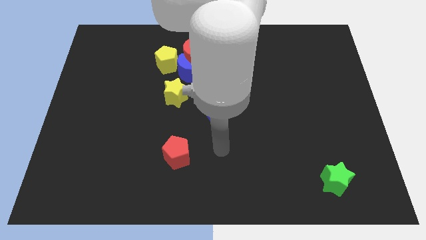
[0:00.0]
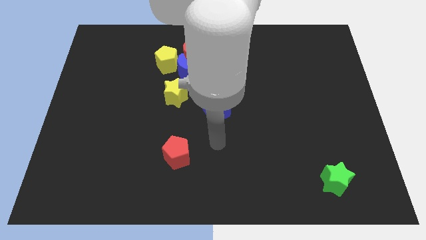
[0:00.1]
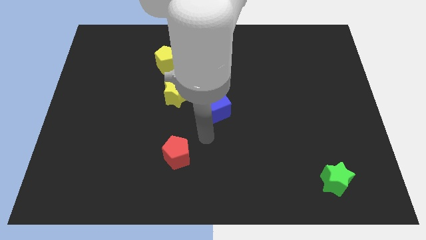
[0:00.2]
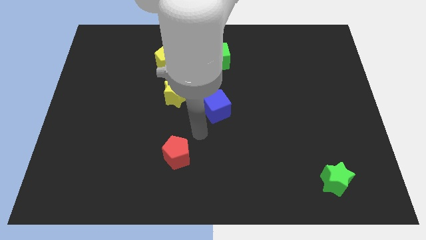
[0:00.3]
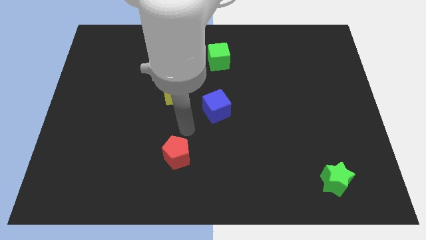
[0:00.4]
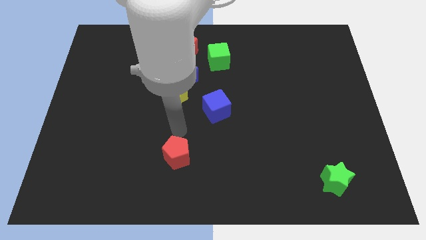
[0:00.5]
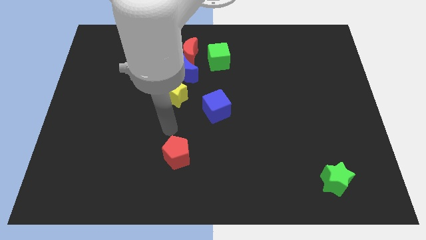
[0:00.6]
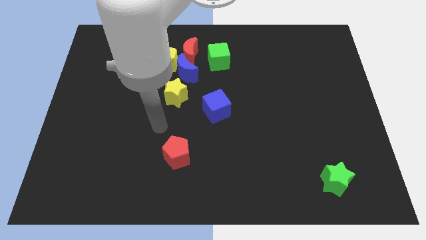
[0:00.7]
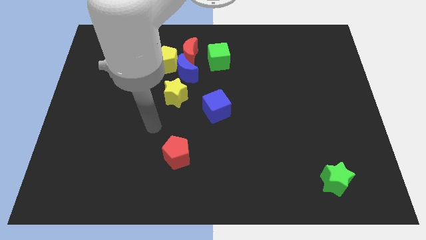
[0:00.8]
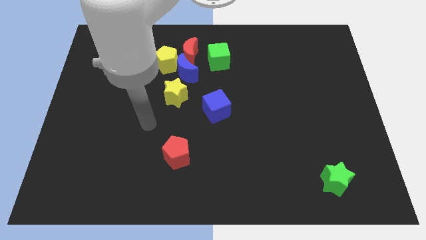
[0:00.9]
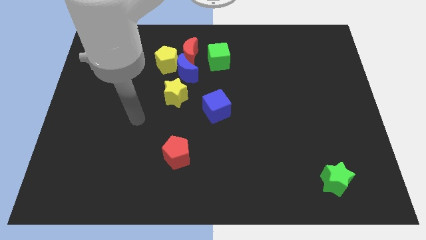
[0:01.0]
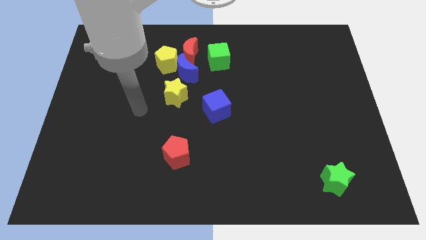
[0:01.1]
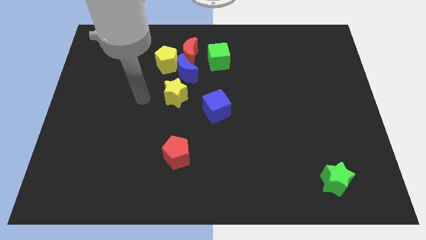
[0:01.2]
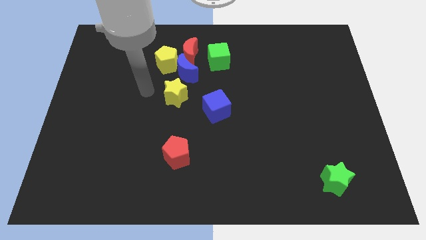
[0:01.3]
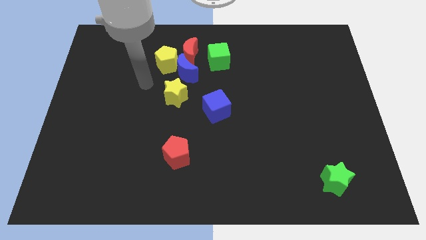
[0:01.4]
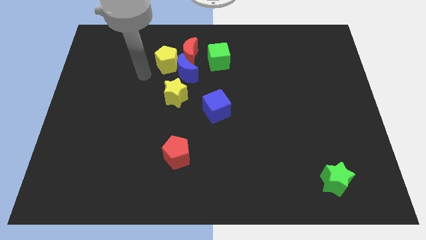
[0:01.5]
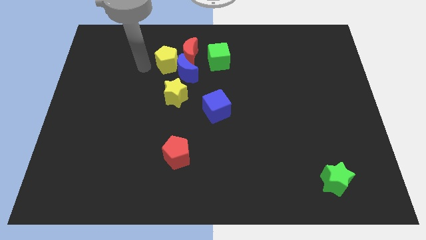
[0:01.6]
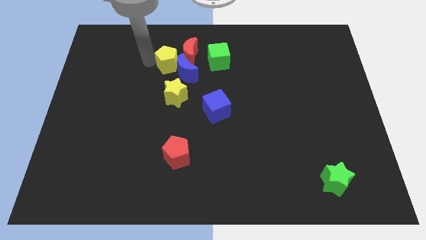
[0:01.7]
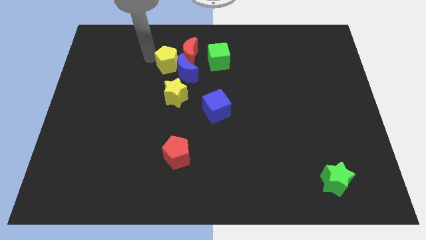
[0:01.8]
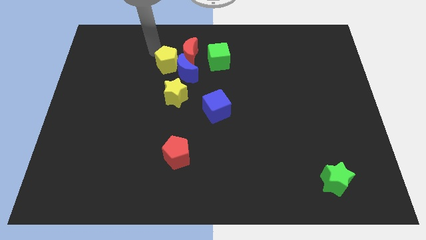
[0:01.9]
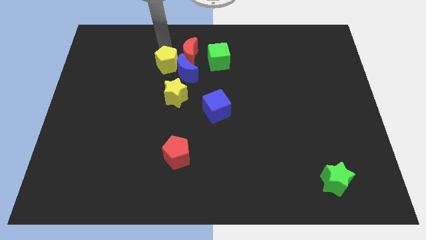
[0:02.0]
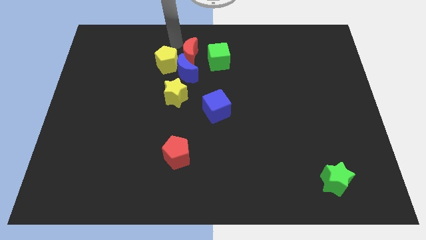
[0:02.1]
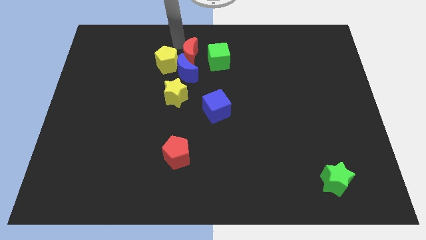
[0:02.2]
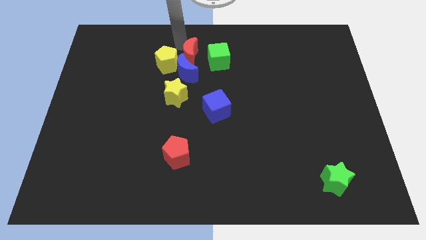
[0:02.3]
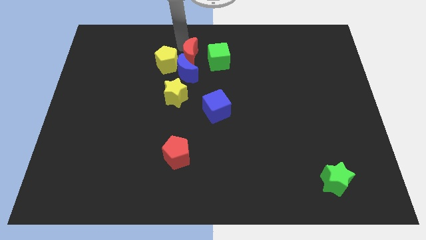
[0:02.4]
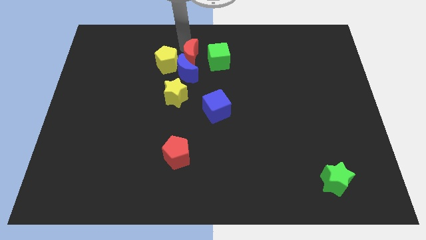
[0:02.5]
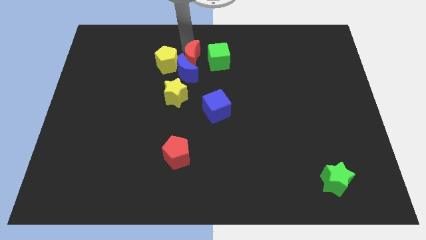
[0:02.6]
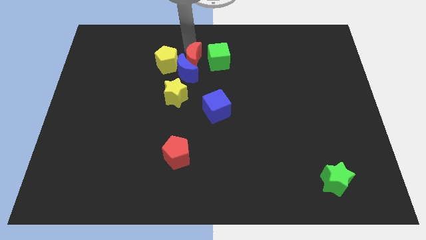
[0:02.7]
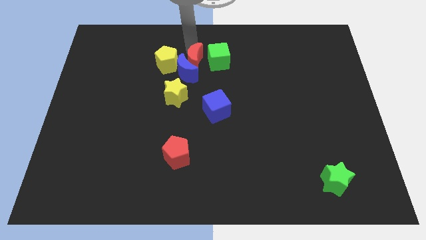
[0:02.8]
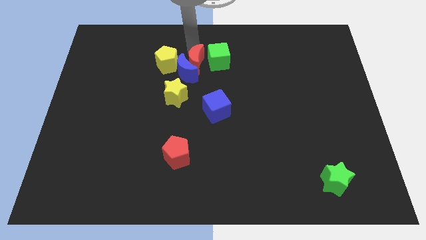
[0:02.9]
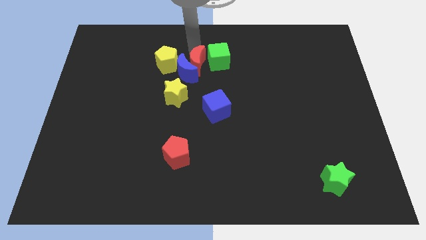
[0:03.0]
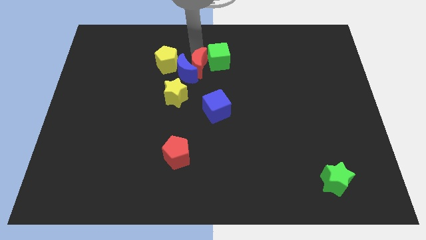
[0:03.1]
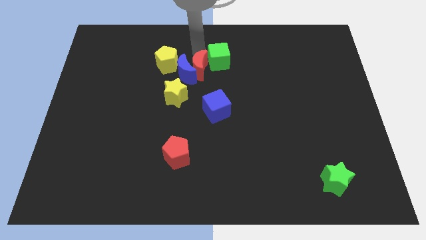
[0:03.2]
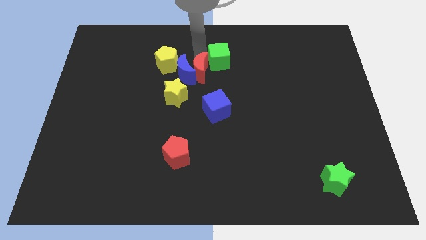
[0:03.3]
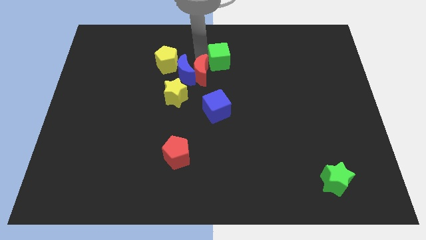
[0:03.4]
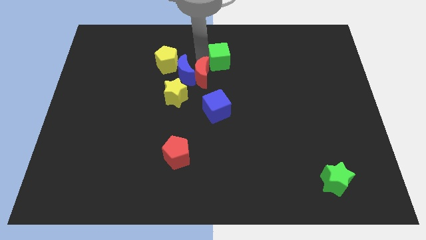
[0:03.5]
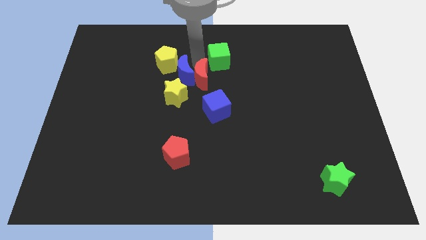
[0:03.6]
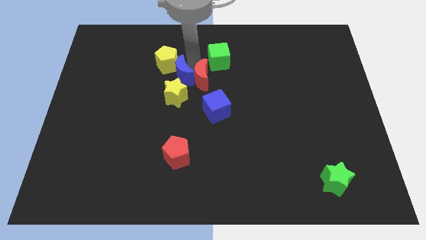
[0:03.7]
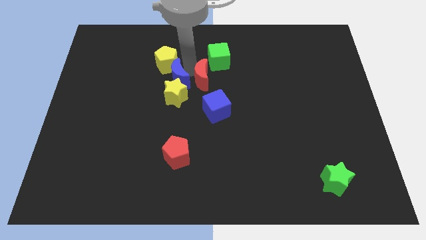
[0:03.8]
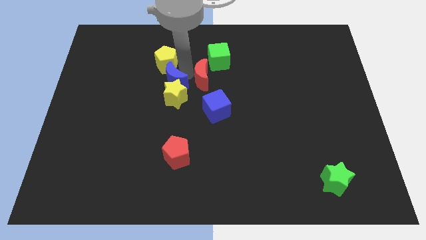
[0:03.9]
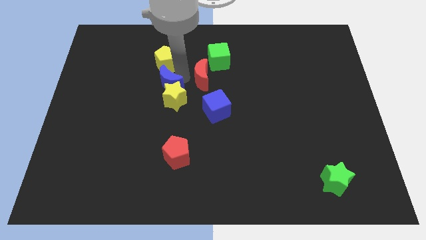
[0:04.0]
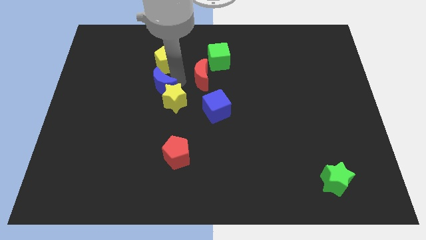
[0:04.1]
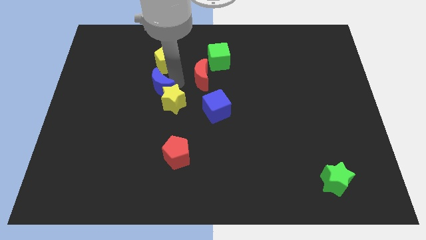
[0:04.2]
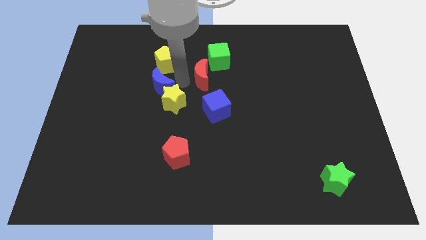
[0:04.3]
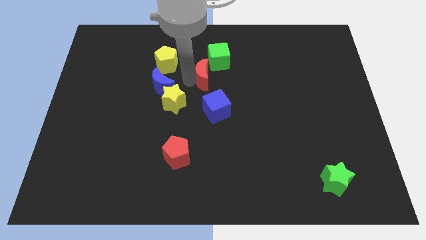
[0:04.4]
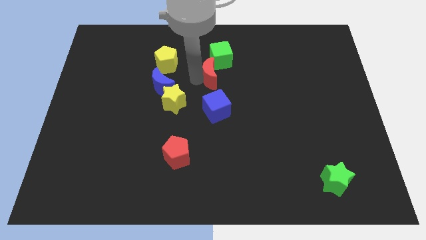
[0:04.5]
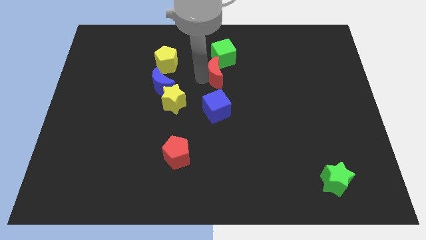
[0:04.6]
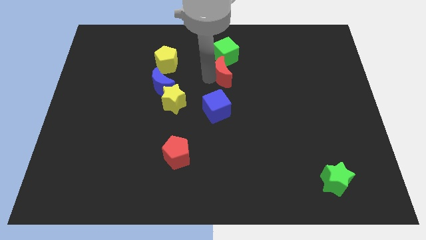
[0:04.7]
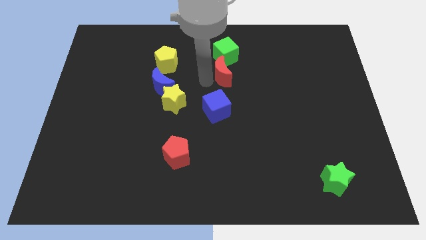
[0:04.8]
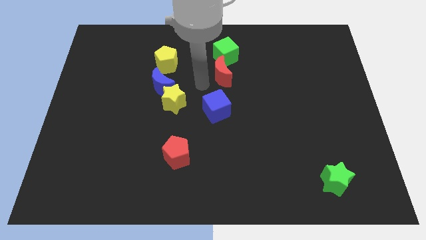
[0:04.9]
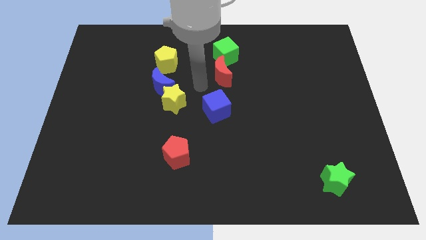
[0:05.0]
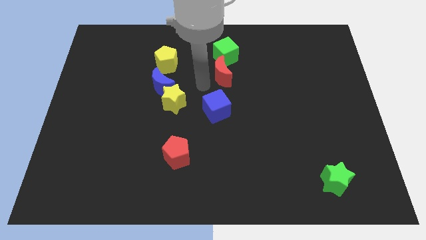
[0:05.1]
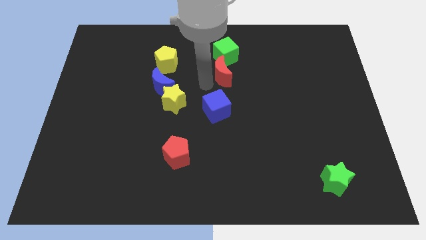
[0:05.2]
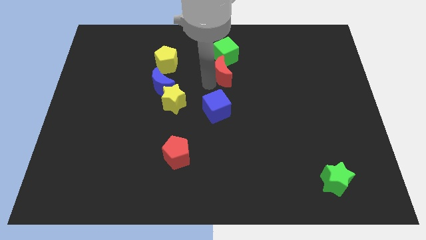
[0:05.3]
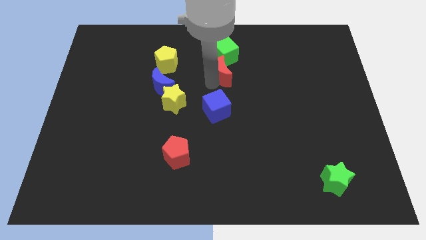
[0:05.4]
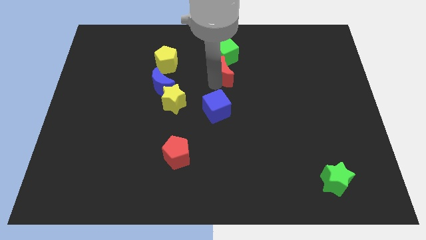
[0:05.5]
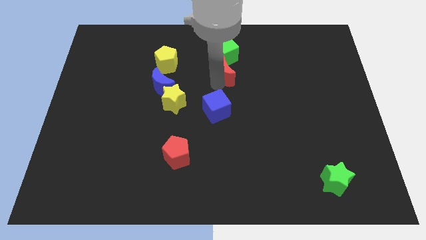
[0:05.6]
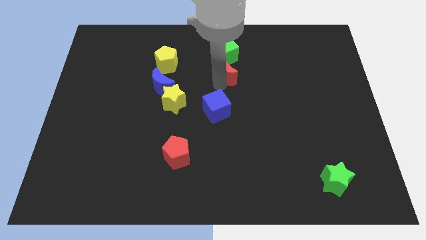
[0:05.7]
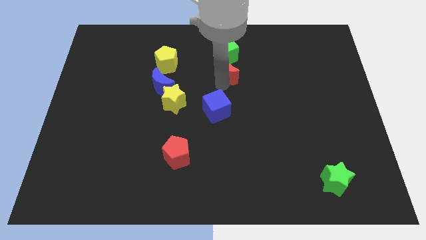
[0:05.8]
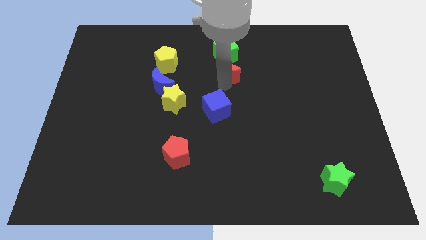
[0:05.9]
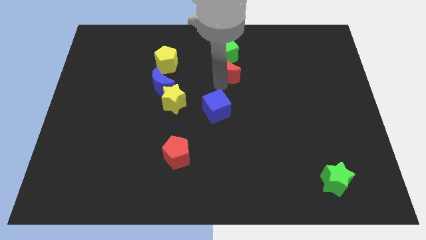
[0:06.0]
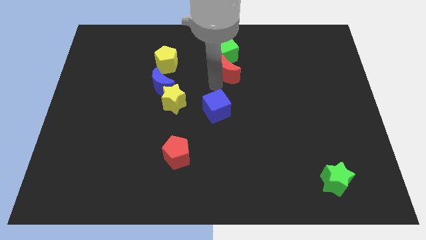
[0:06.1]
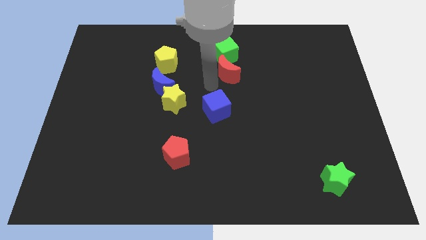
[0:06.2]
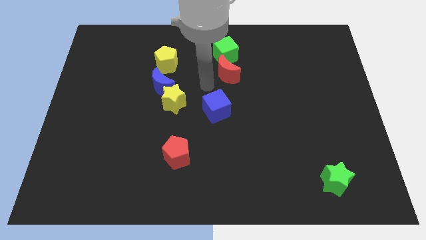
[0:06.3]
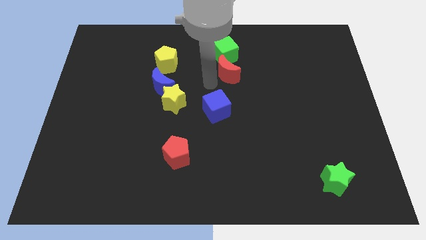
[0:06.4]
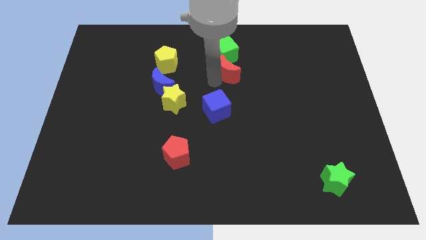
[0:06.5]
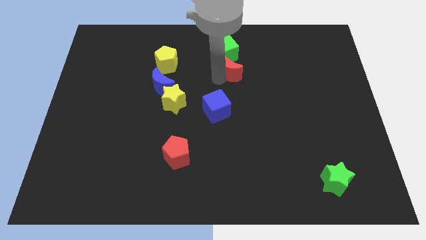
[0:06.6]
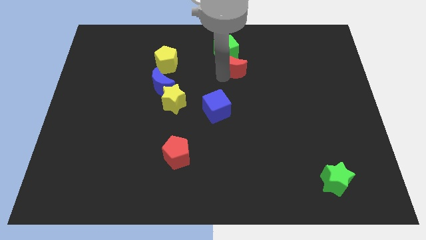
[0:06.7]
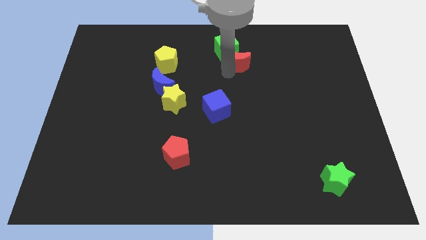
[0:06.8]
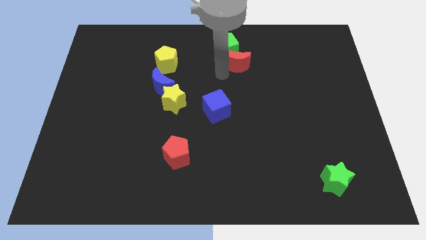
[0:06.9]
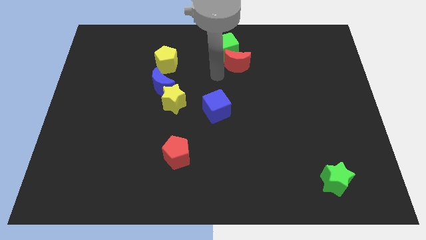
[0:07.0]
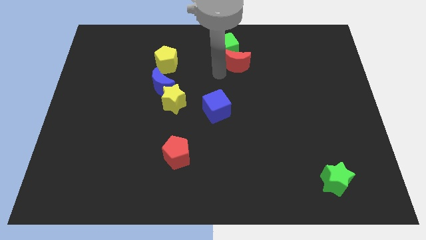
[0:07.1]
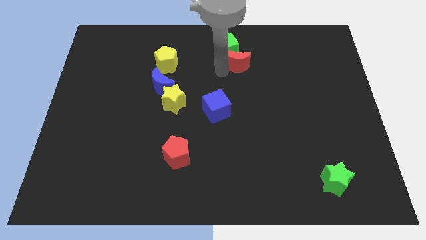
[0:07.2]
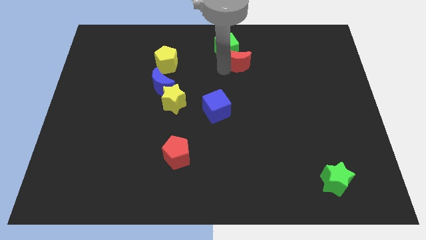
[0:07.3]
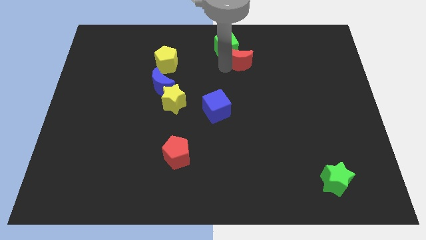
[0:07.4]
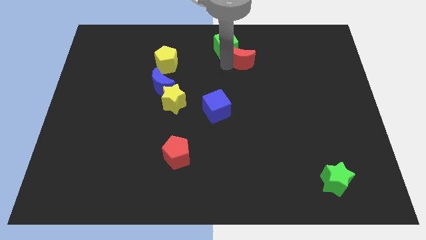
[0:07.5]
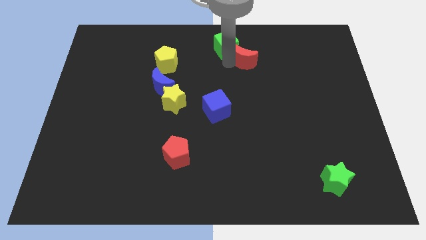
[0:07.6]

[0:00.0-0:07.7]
move the red moon right of the green cube
